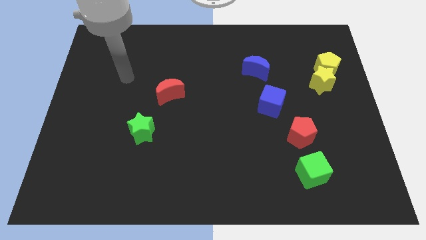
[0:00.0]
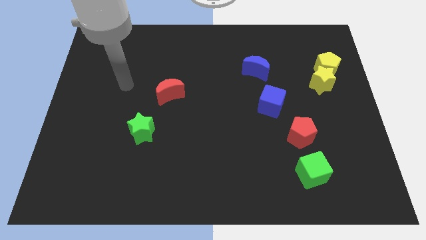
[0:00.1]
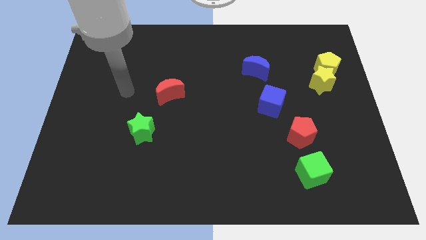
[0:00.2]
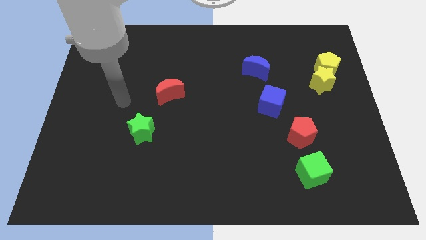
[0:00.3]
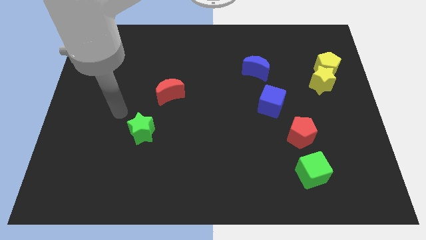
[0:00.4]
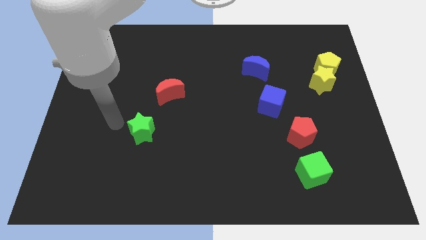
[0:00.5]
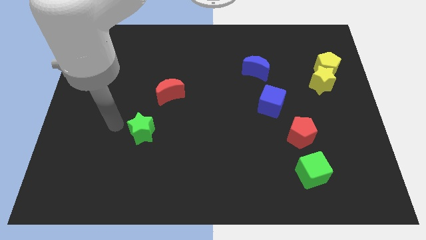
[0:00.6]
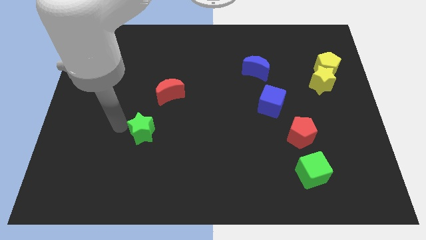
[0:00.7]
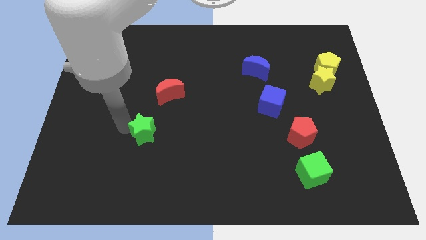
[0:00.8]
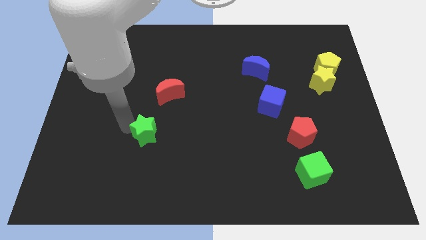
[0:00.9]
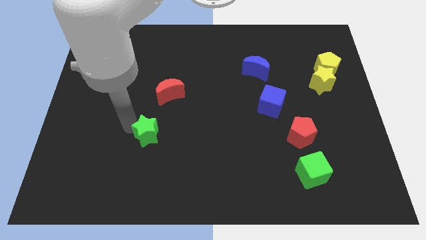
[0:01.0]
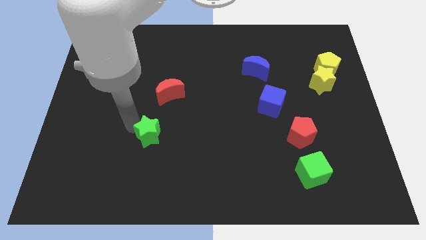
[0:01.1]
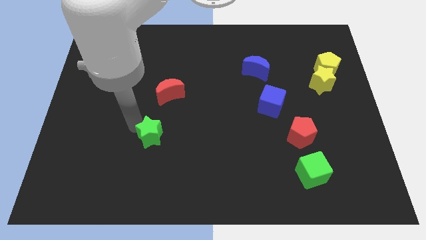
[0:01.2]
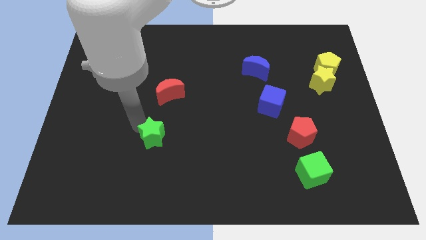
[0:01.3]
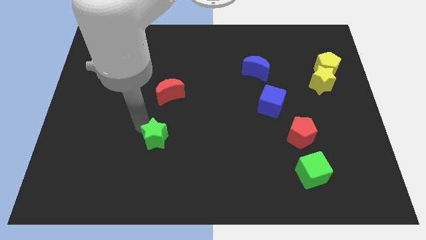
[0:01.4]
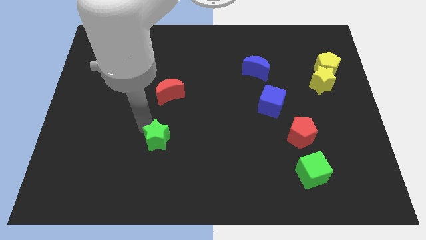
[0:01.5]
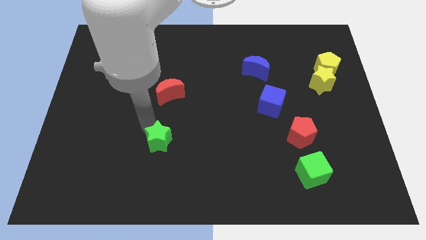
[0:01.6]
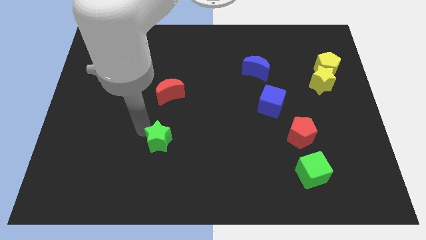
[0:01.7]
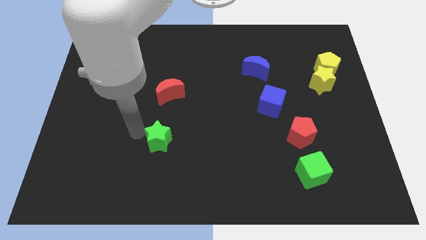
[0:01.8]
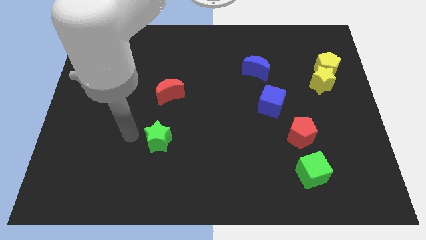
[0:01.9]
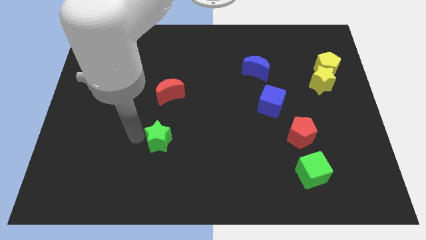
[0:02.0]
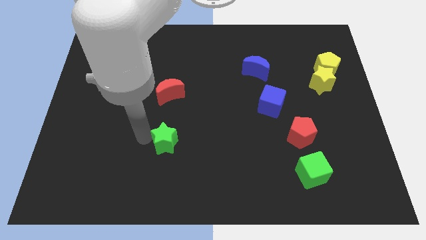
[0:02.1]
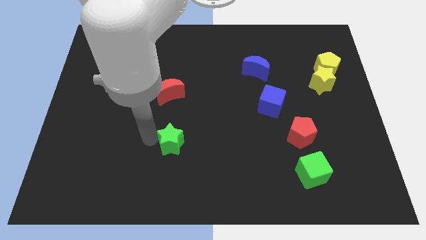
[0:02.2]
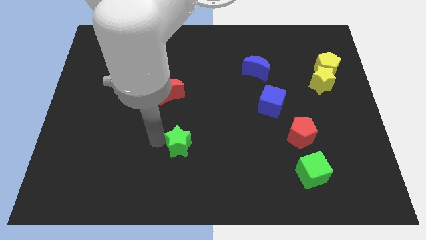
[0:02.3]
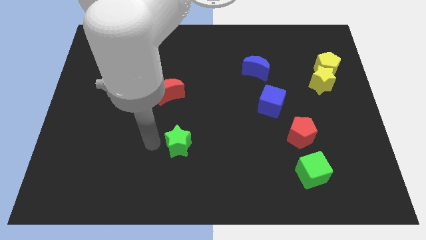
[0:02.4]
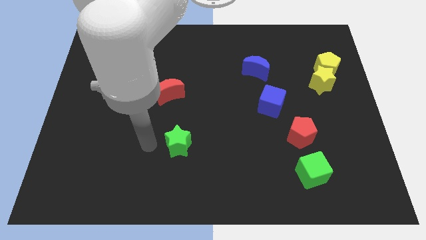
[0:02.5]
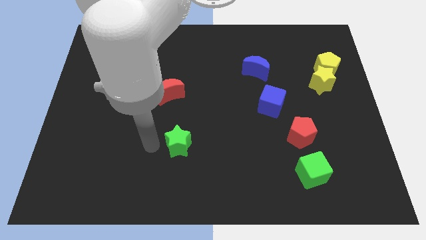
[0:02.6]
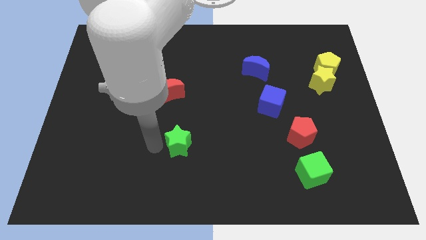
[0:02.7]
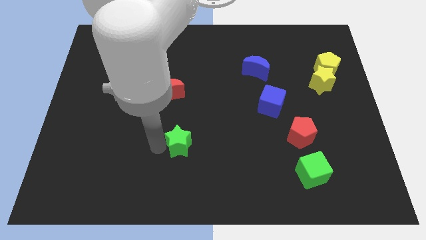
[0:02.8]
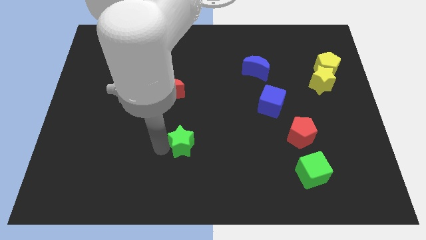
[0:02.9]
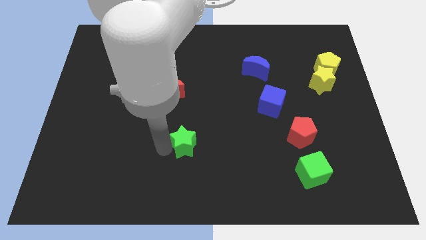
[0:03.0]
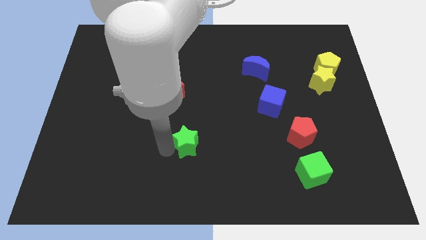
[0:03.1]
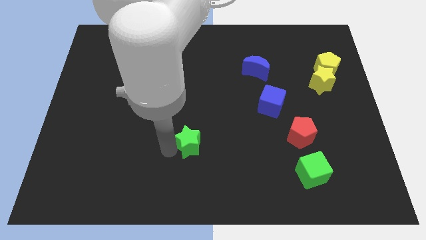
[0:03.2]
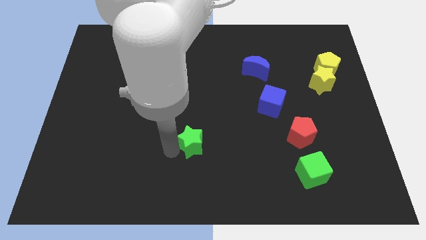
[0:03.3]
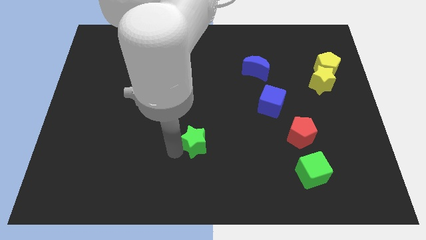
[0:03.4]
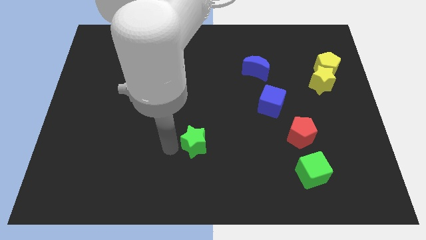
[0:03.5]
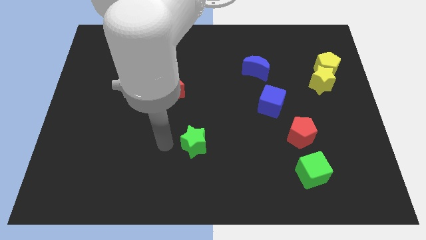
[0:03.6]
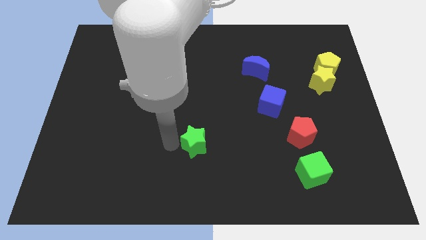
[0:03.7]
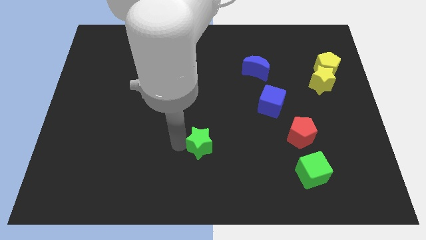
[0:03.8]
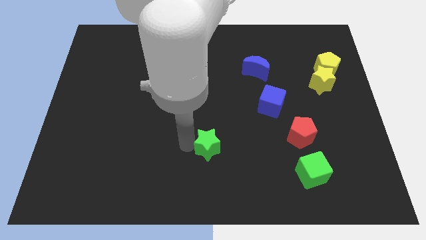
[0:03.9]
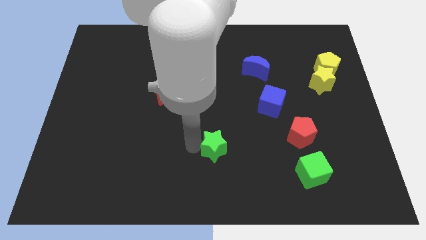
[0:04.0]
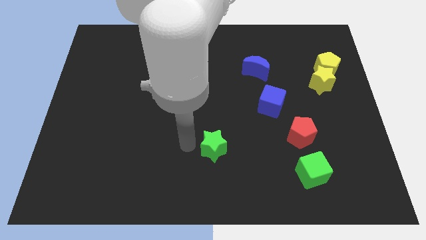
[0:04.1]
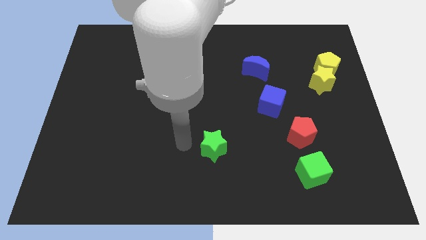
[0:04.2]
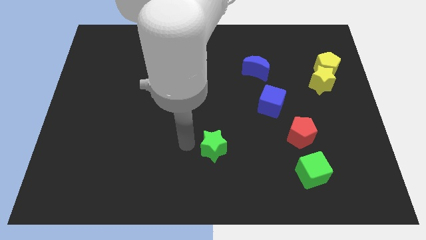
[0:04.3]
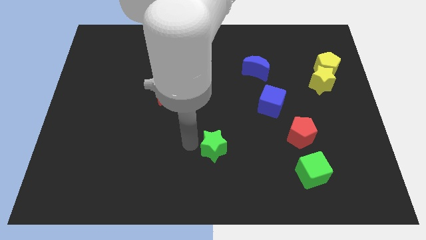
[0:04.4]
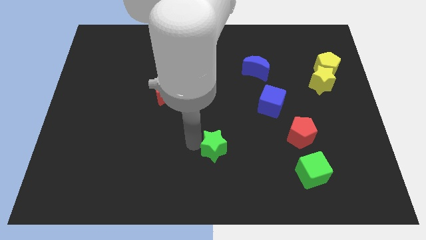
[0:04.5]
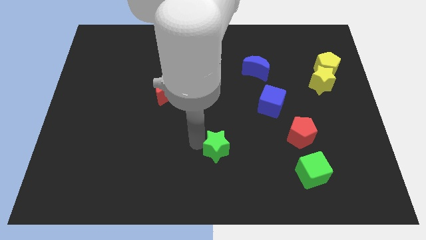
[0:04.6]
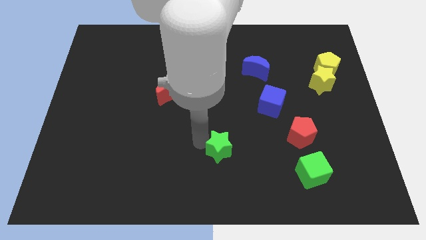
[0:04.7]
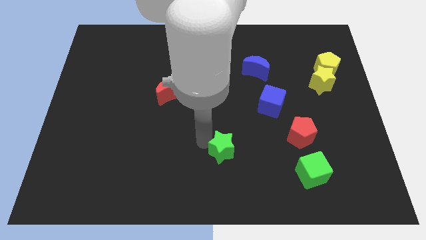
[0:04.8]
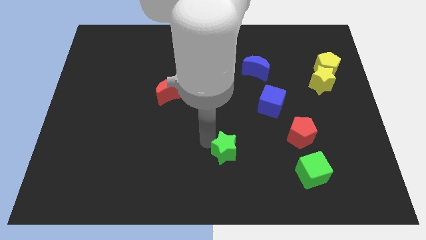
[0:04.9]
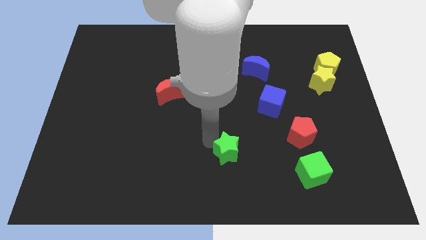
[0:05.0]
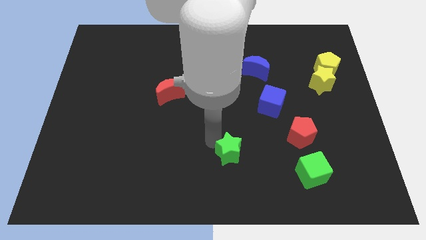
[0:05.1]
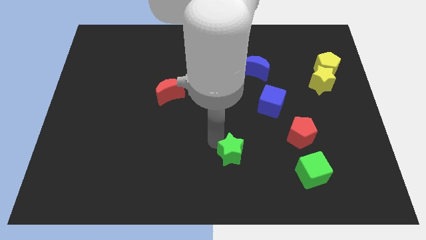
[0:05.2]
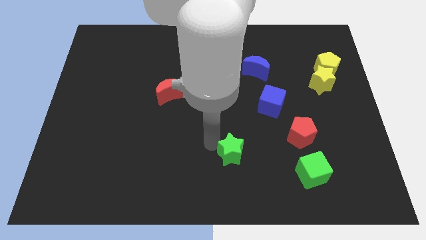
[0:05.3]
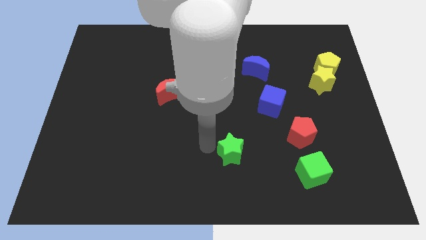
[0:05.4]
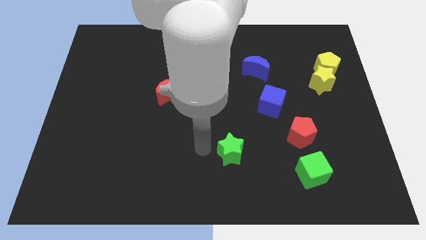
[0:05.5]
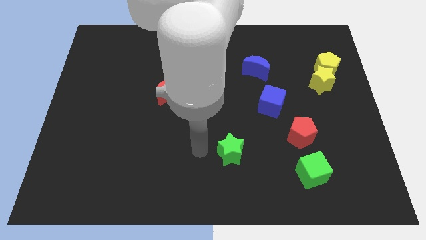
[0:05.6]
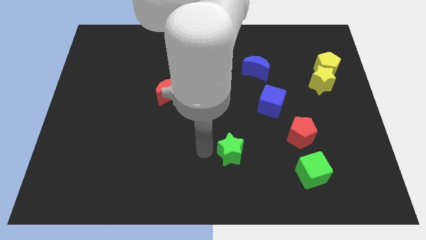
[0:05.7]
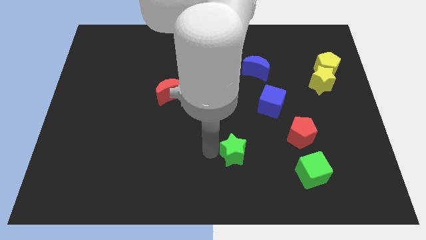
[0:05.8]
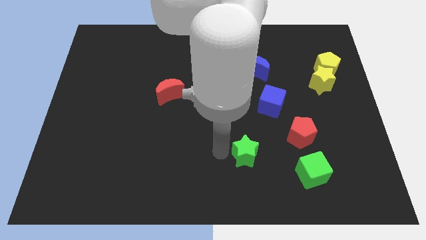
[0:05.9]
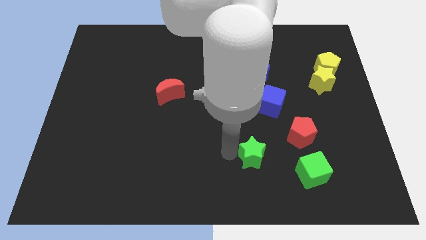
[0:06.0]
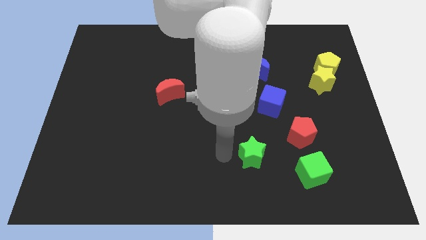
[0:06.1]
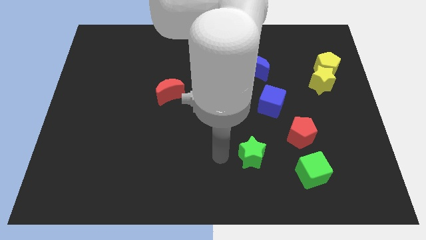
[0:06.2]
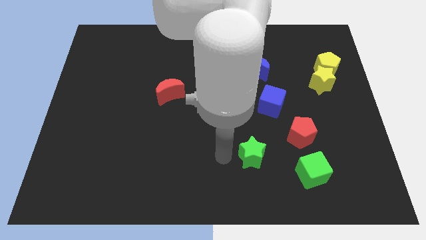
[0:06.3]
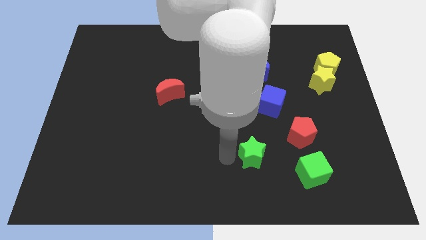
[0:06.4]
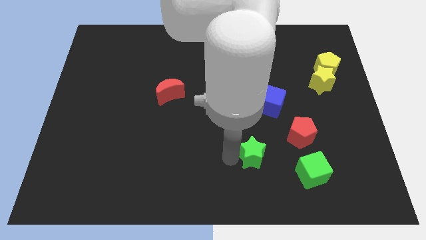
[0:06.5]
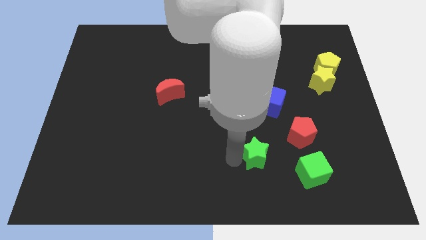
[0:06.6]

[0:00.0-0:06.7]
move the green star to the bottom left of the red pentagon
